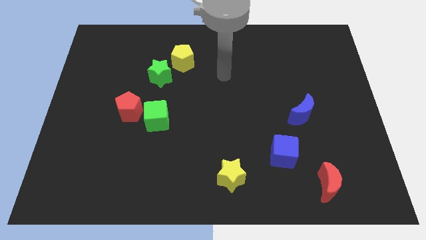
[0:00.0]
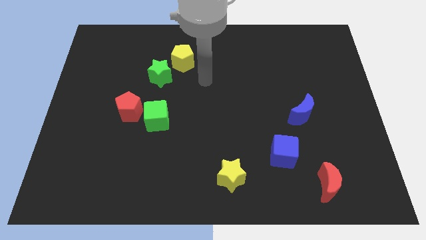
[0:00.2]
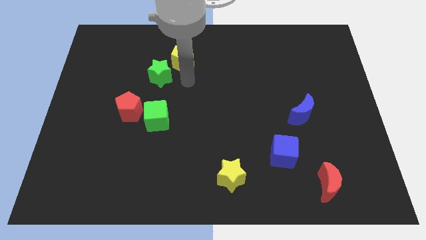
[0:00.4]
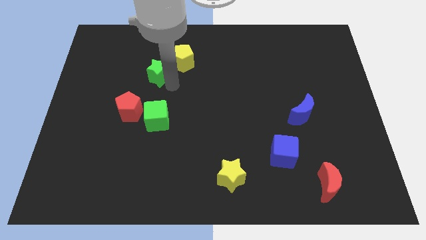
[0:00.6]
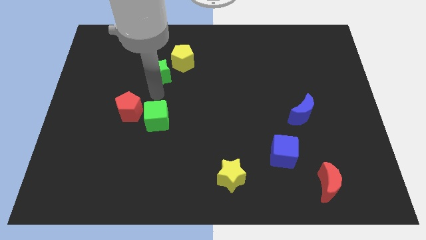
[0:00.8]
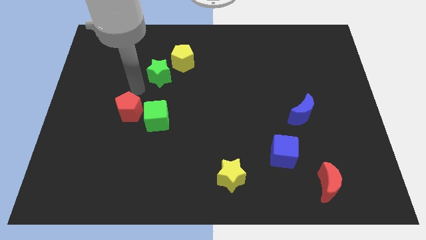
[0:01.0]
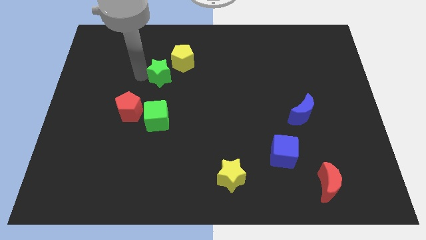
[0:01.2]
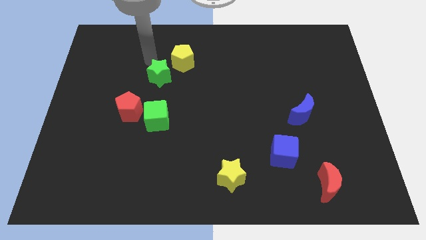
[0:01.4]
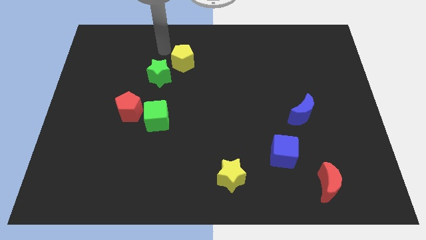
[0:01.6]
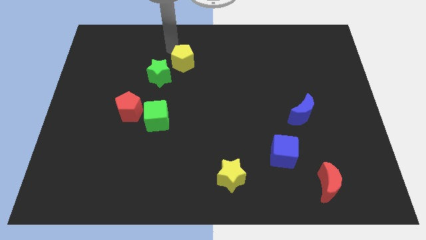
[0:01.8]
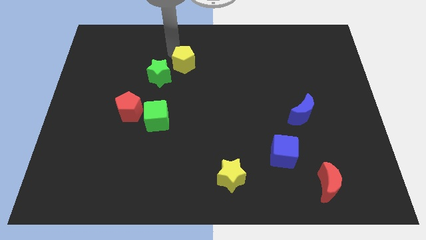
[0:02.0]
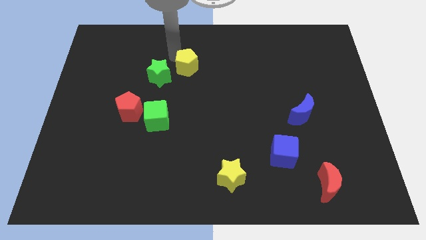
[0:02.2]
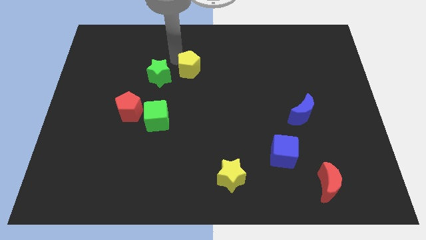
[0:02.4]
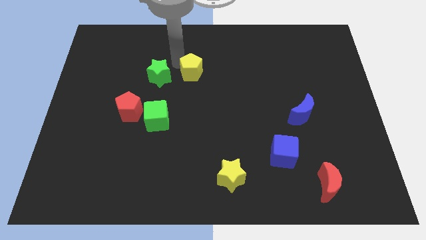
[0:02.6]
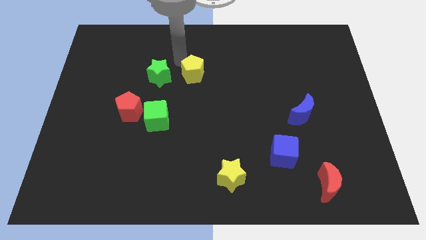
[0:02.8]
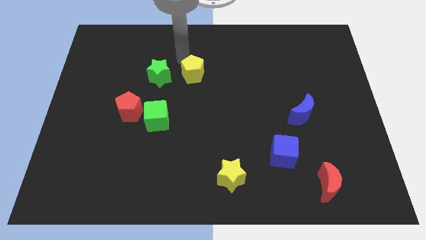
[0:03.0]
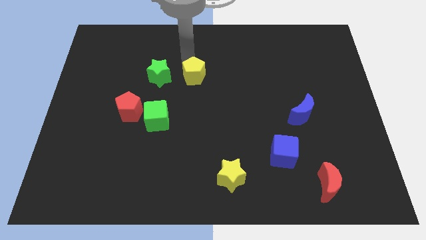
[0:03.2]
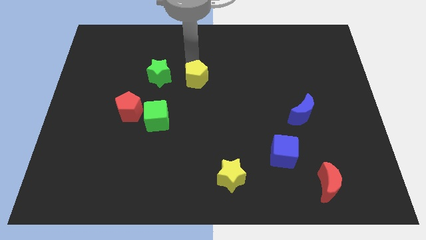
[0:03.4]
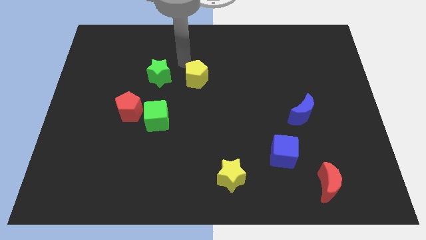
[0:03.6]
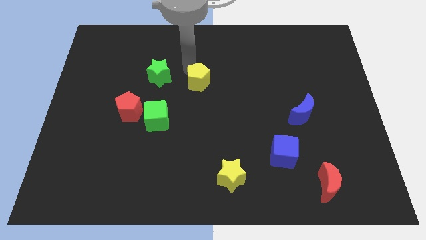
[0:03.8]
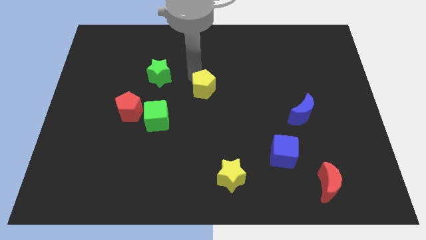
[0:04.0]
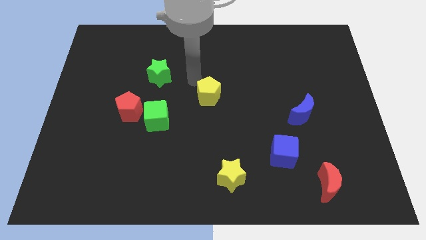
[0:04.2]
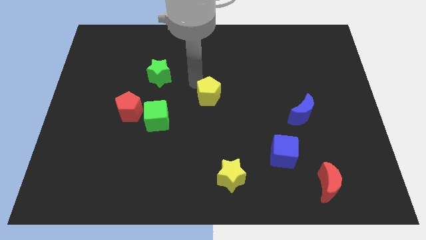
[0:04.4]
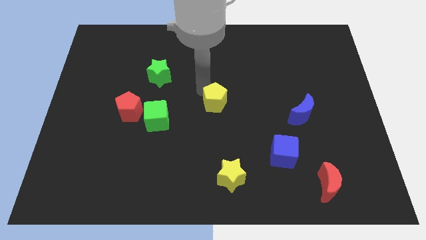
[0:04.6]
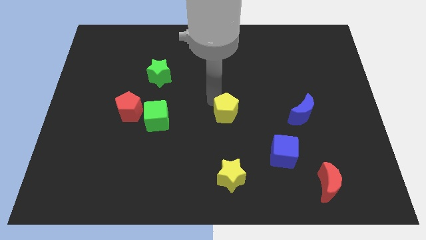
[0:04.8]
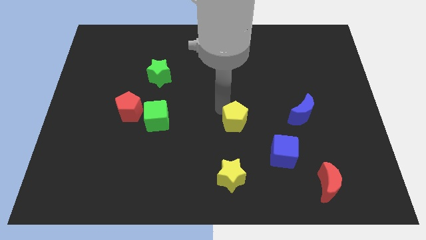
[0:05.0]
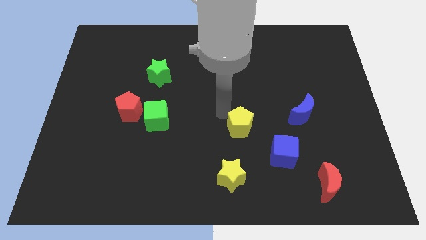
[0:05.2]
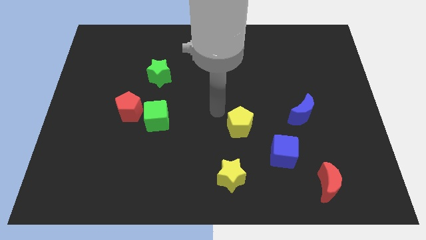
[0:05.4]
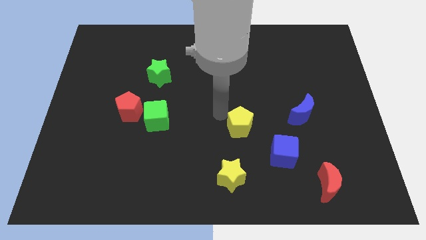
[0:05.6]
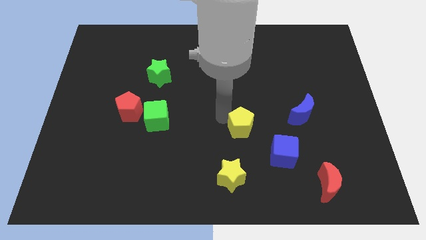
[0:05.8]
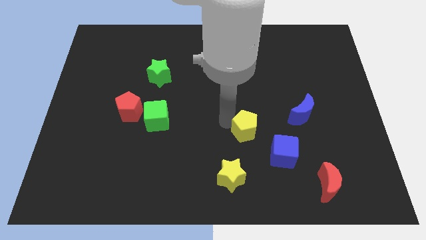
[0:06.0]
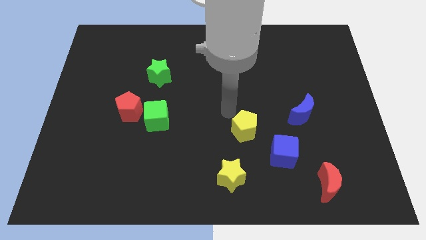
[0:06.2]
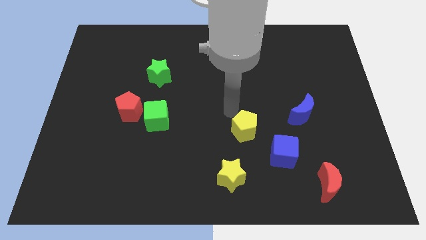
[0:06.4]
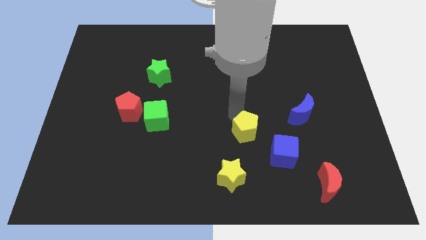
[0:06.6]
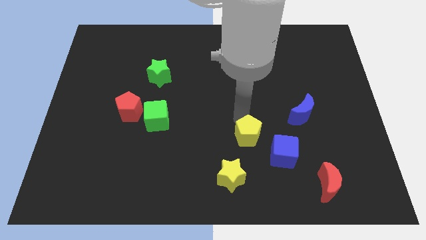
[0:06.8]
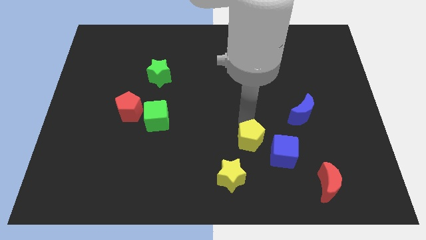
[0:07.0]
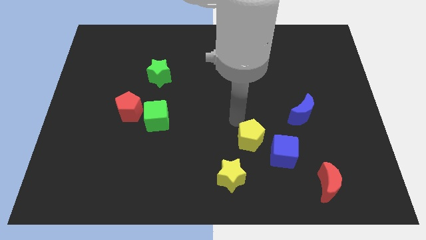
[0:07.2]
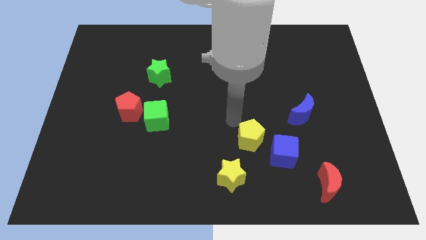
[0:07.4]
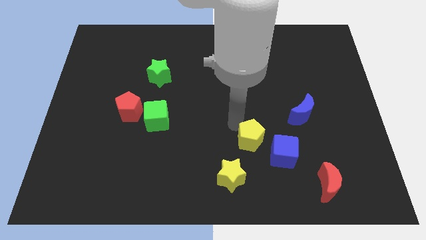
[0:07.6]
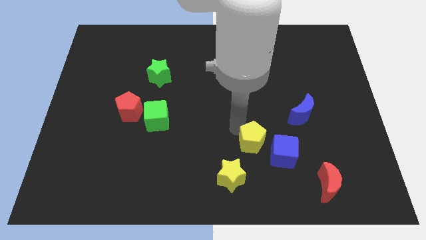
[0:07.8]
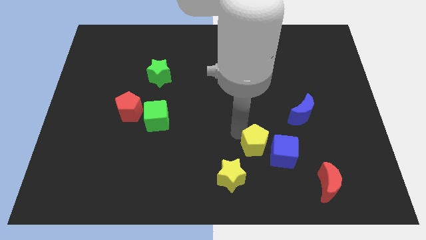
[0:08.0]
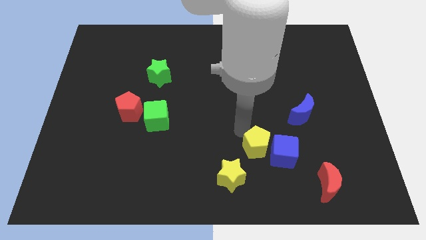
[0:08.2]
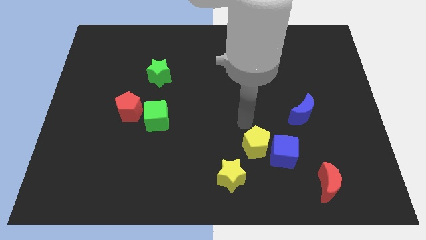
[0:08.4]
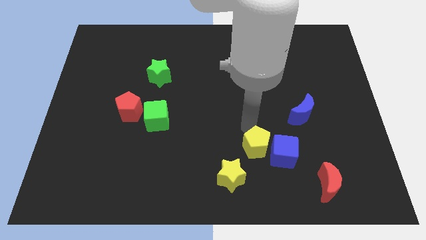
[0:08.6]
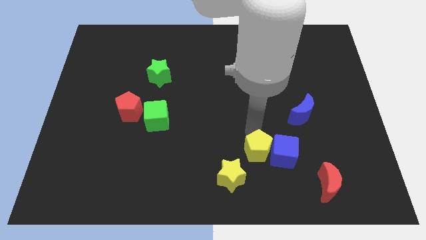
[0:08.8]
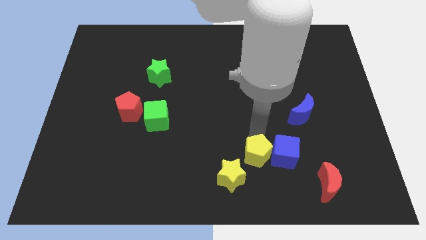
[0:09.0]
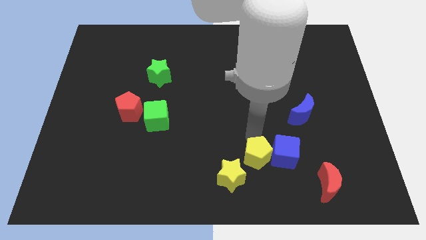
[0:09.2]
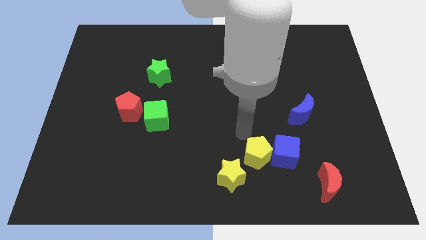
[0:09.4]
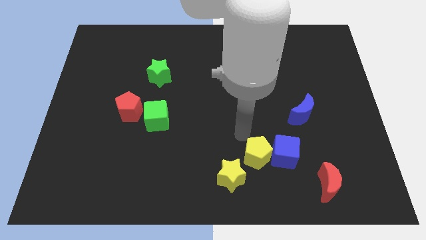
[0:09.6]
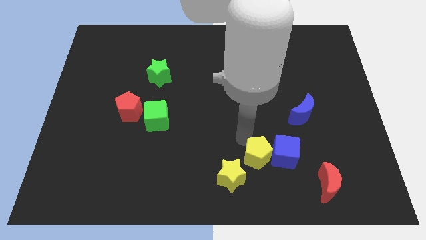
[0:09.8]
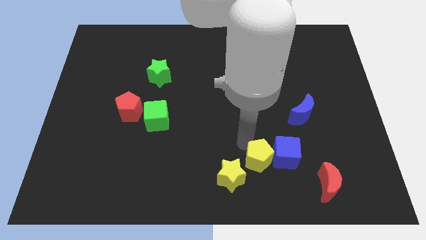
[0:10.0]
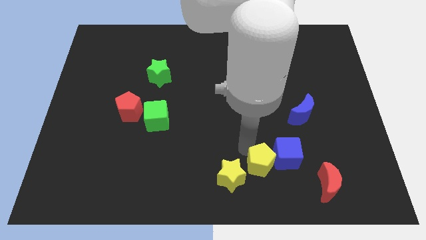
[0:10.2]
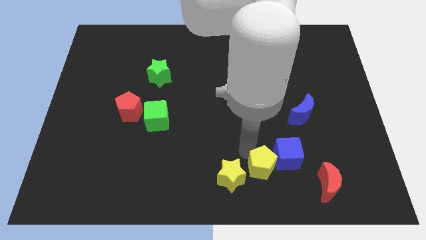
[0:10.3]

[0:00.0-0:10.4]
push the yellow pentagon to the left of the red moon

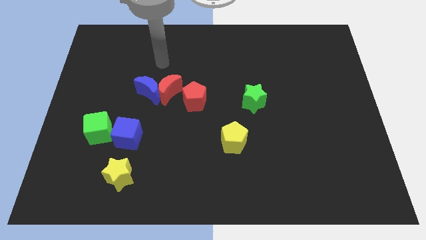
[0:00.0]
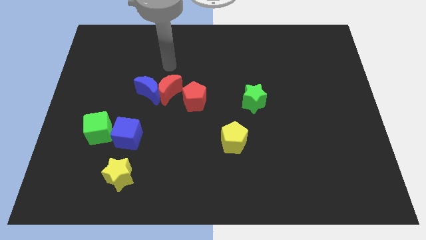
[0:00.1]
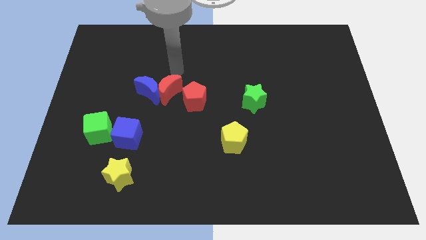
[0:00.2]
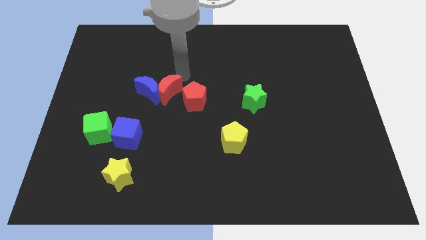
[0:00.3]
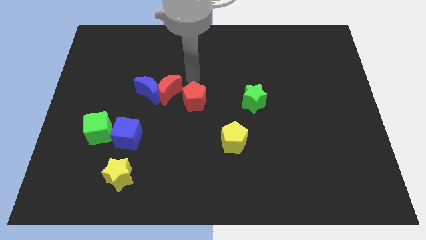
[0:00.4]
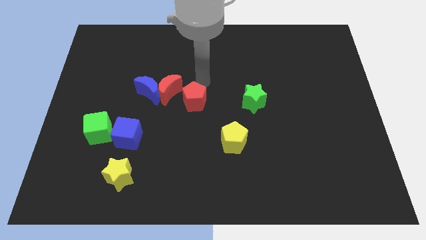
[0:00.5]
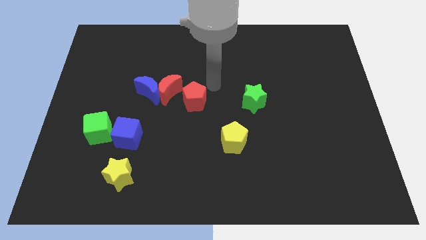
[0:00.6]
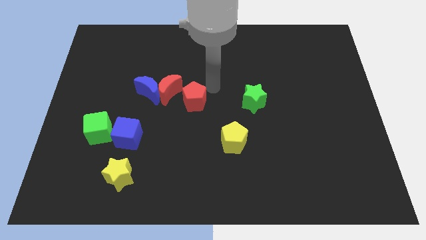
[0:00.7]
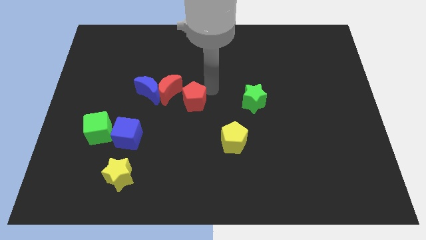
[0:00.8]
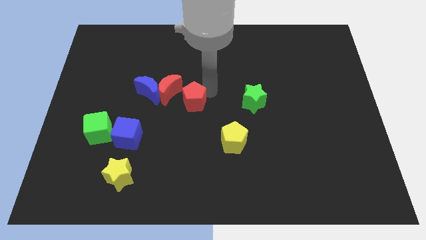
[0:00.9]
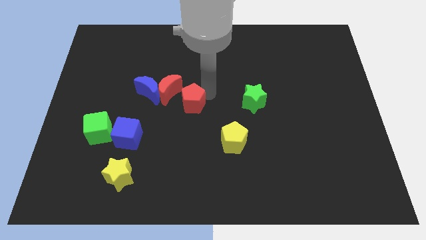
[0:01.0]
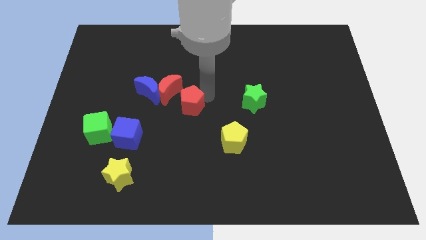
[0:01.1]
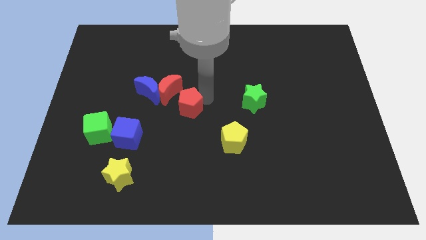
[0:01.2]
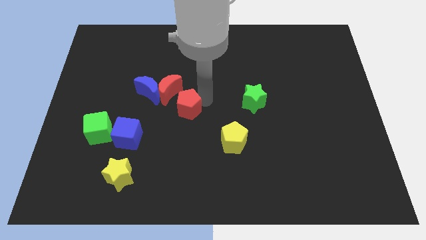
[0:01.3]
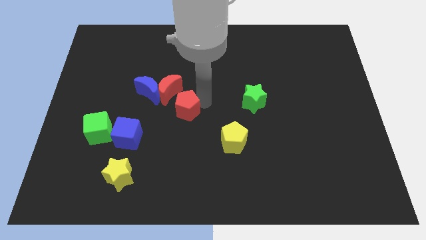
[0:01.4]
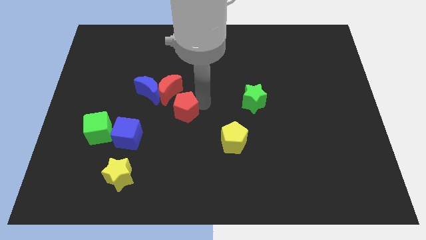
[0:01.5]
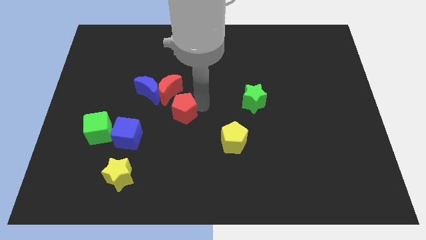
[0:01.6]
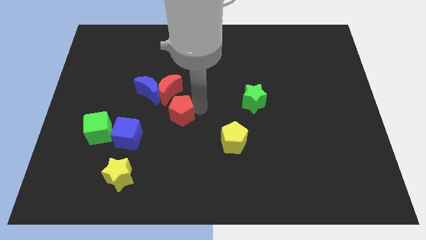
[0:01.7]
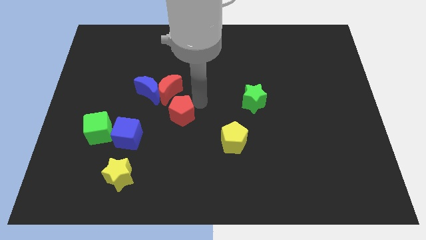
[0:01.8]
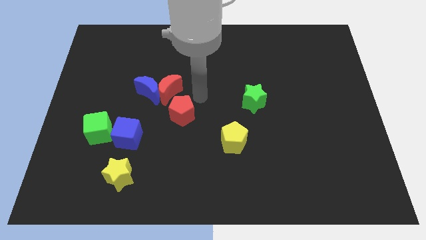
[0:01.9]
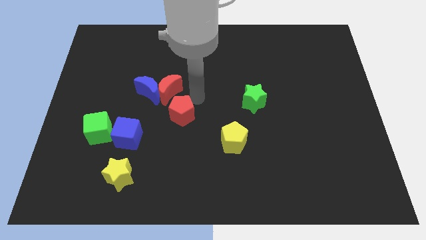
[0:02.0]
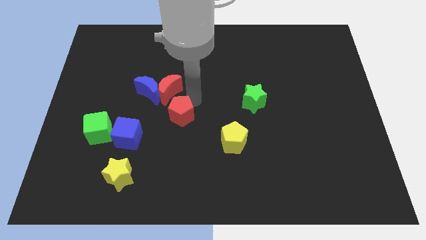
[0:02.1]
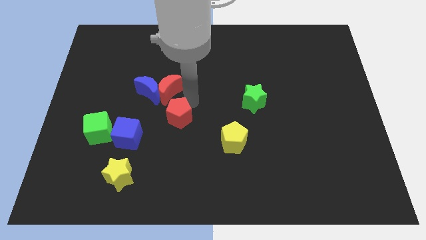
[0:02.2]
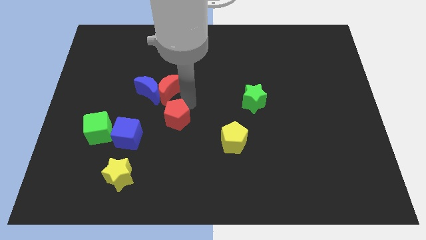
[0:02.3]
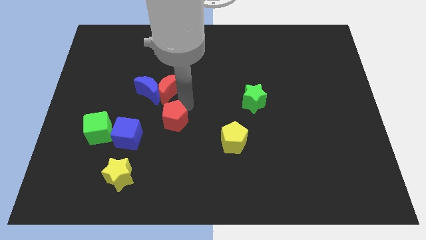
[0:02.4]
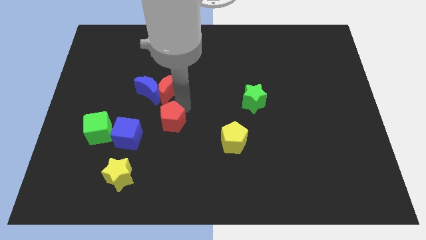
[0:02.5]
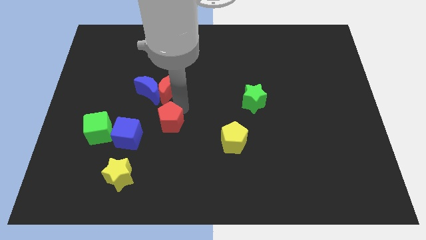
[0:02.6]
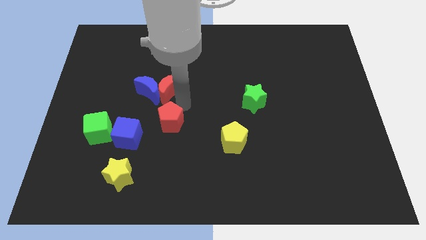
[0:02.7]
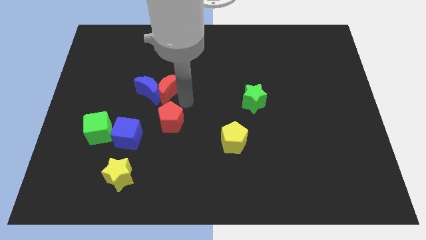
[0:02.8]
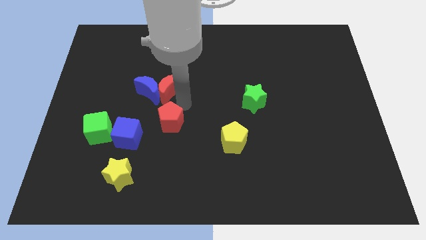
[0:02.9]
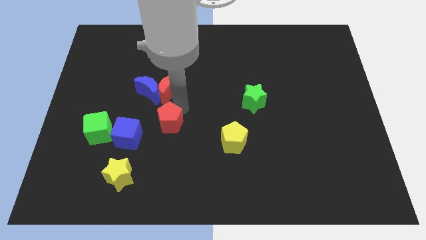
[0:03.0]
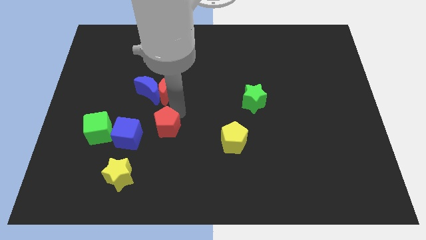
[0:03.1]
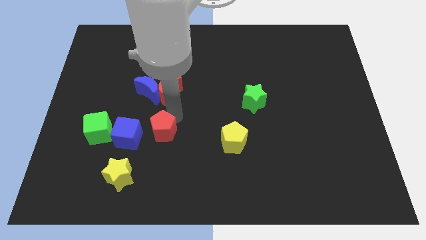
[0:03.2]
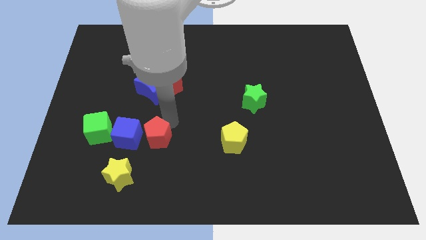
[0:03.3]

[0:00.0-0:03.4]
push the red pentagon diagonally up and to the right of the yellow star
